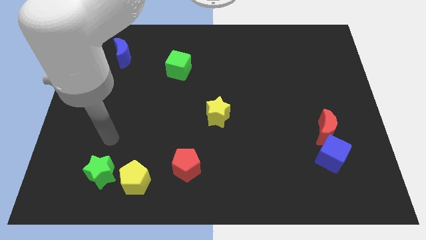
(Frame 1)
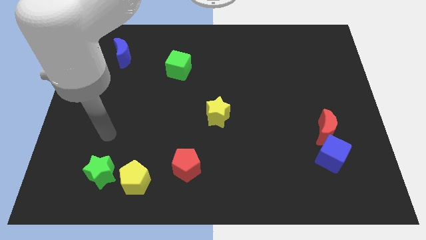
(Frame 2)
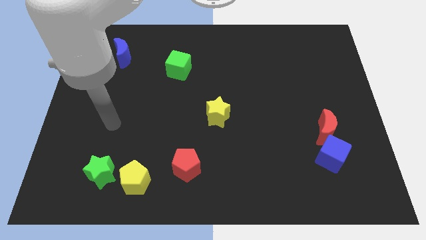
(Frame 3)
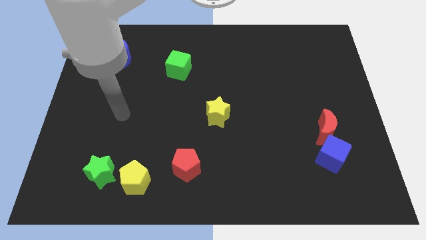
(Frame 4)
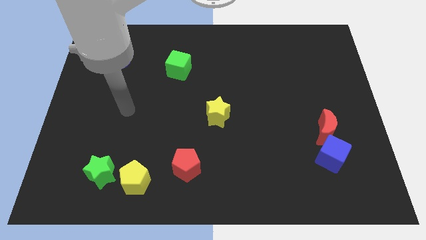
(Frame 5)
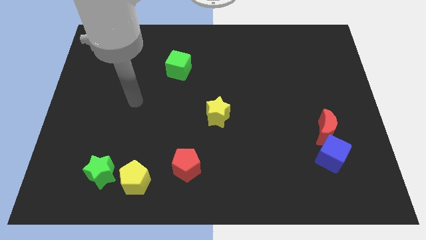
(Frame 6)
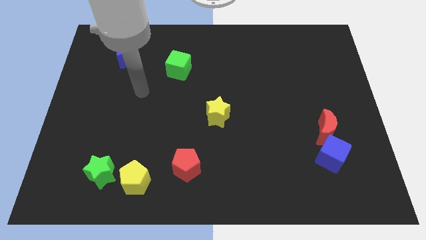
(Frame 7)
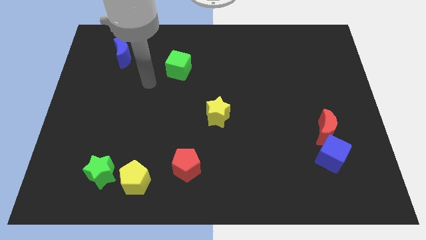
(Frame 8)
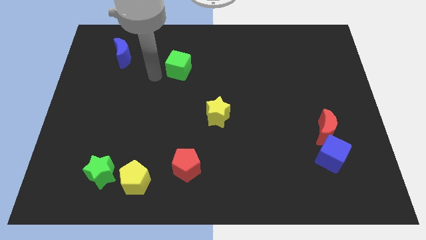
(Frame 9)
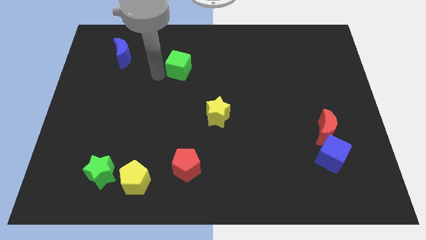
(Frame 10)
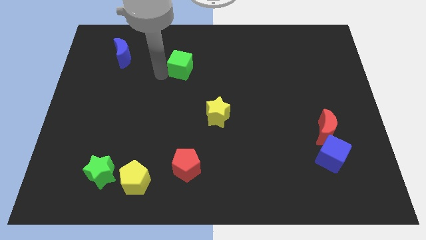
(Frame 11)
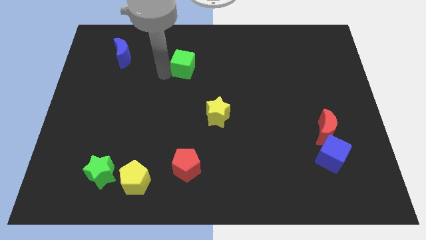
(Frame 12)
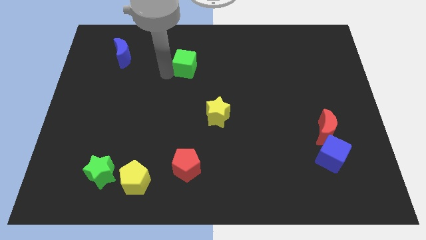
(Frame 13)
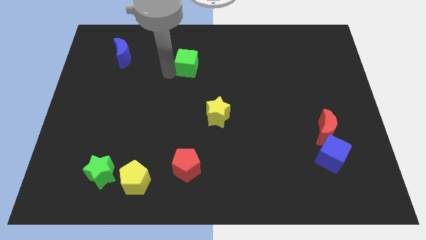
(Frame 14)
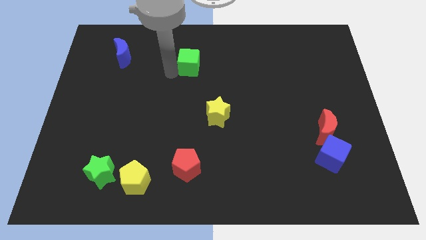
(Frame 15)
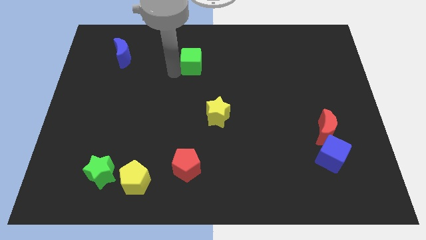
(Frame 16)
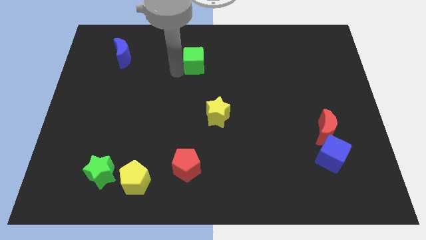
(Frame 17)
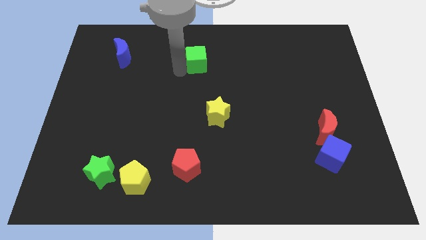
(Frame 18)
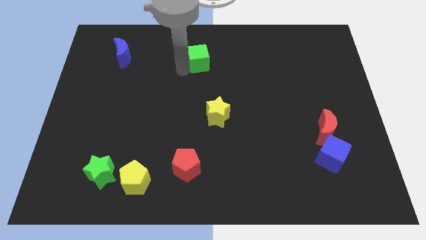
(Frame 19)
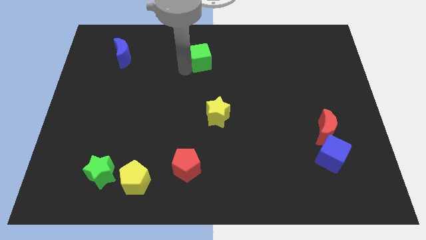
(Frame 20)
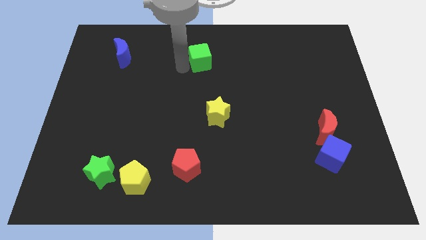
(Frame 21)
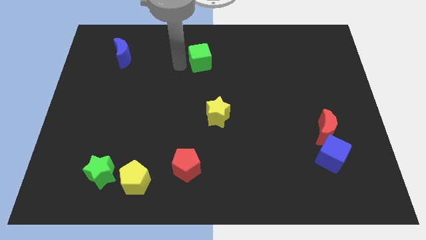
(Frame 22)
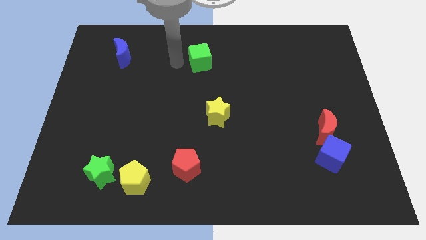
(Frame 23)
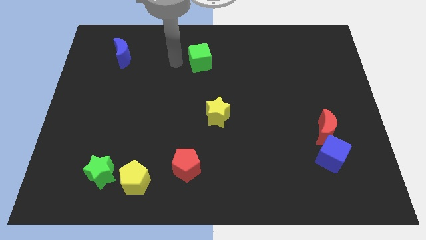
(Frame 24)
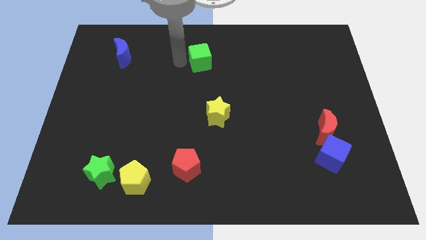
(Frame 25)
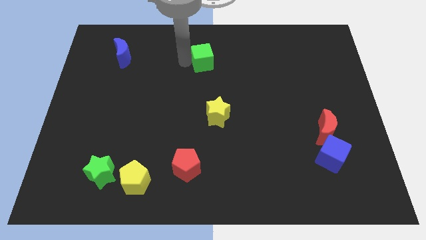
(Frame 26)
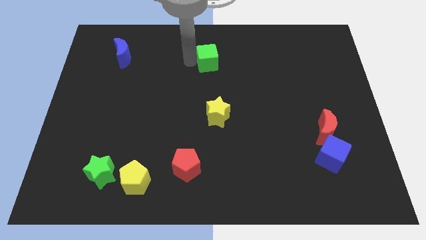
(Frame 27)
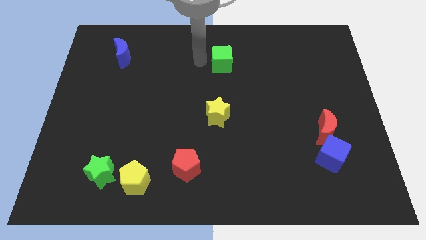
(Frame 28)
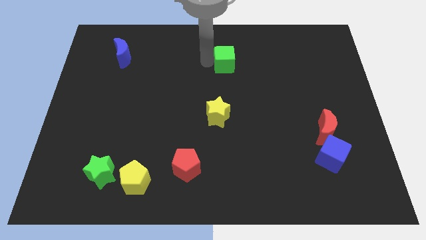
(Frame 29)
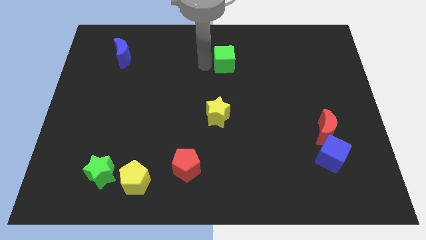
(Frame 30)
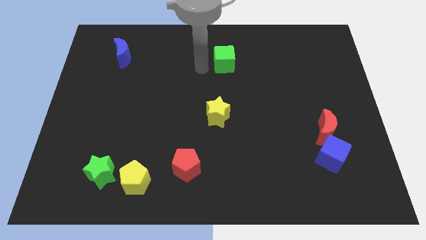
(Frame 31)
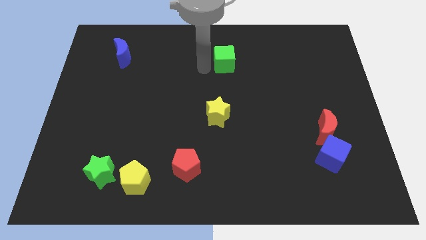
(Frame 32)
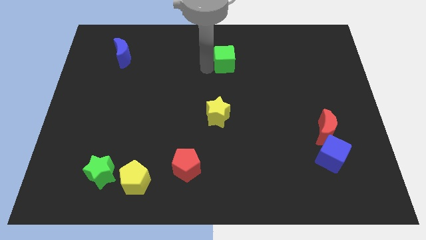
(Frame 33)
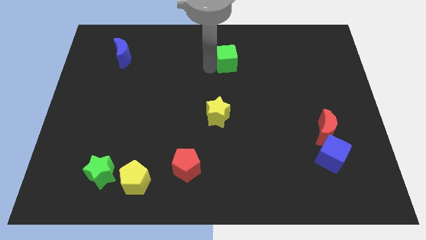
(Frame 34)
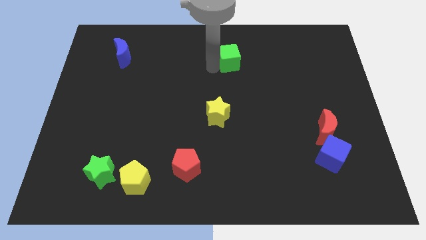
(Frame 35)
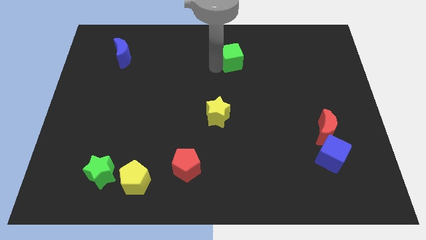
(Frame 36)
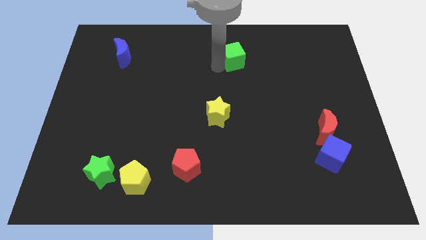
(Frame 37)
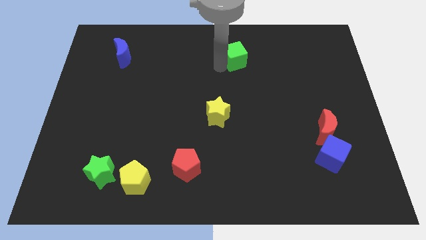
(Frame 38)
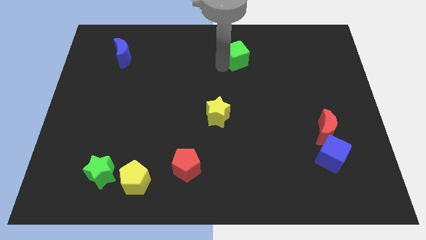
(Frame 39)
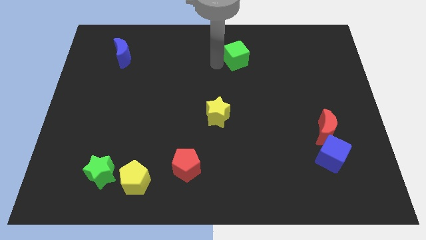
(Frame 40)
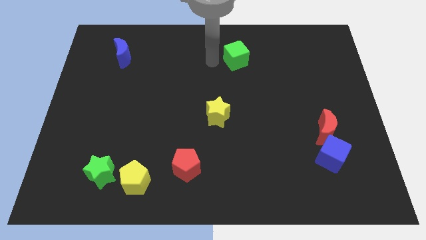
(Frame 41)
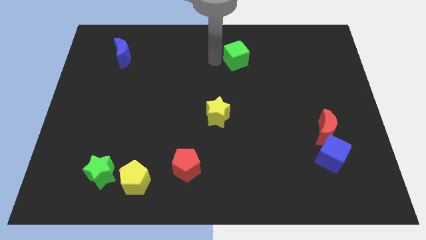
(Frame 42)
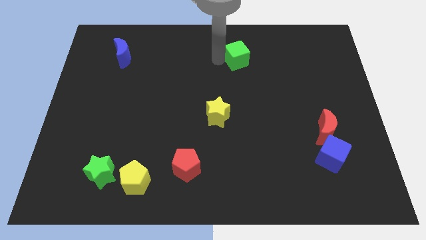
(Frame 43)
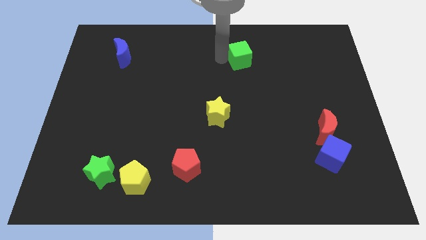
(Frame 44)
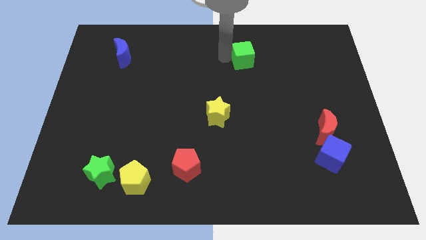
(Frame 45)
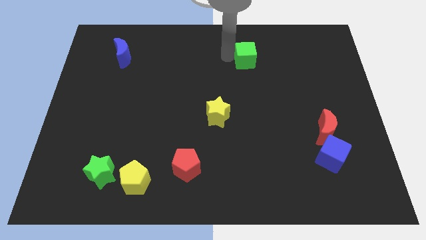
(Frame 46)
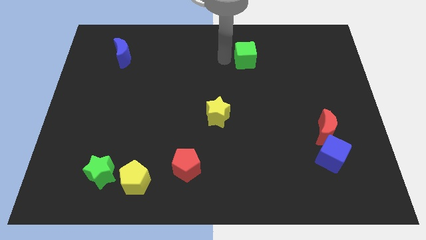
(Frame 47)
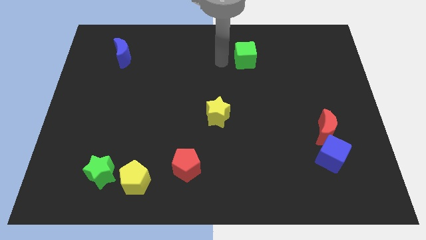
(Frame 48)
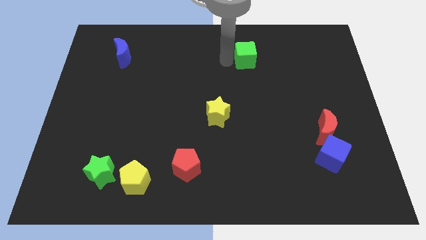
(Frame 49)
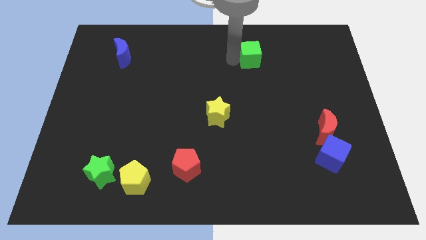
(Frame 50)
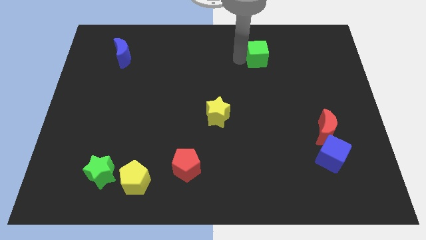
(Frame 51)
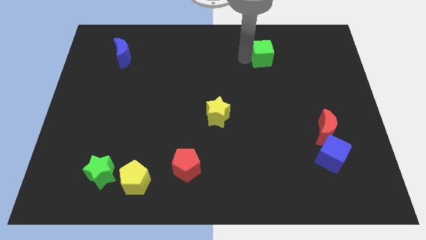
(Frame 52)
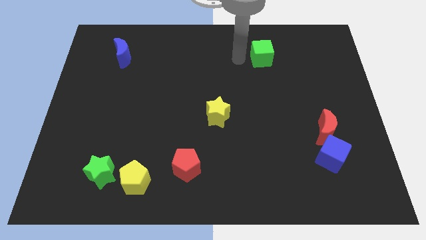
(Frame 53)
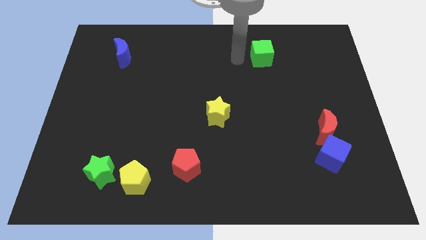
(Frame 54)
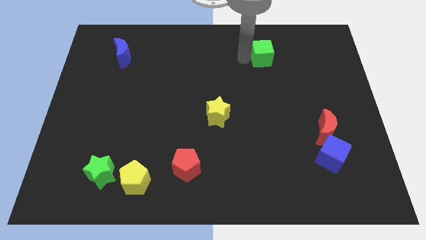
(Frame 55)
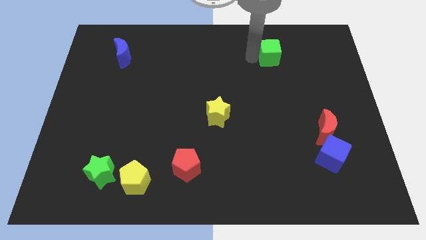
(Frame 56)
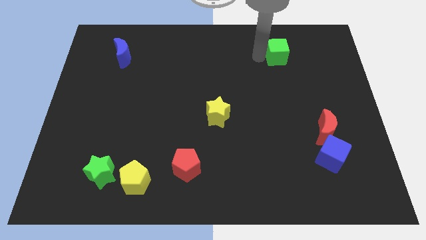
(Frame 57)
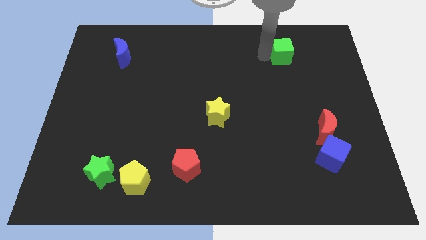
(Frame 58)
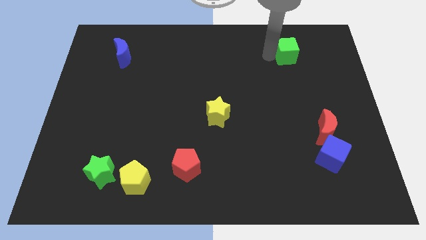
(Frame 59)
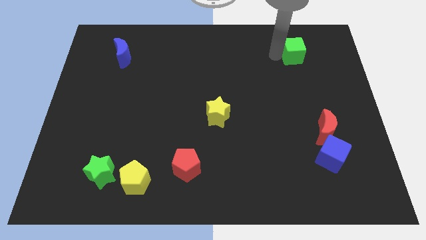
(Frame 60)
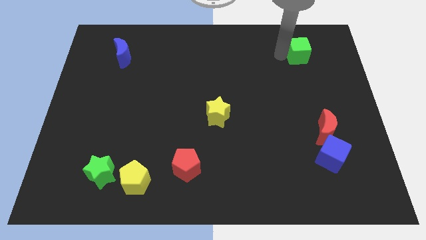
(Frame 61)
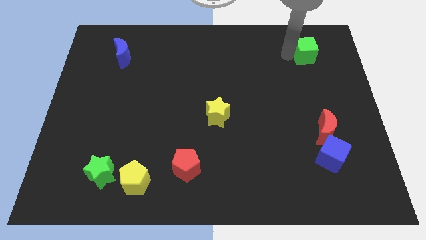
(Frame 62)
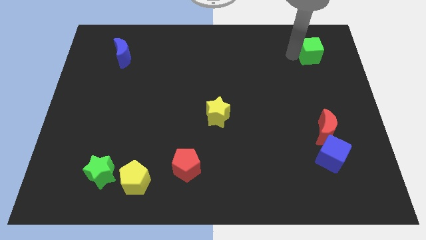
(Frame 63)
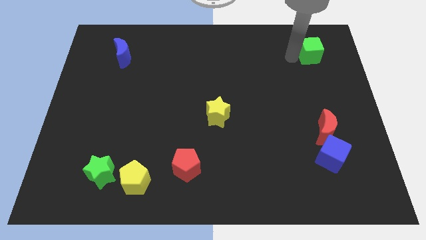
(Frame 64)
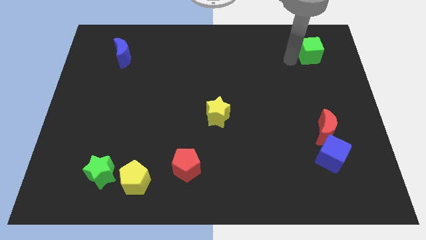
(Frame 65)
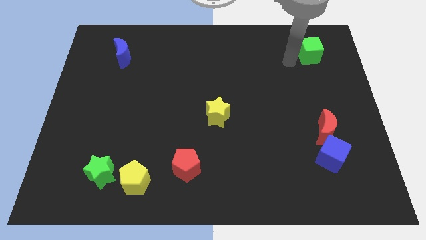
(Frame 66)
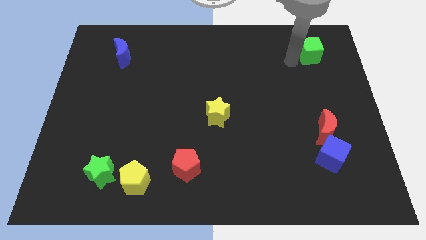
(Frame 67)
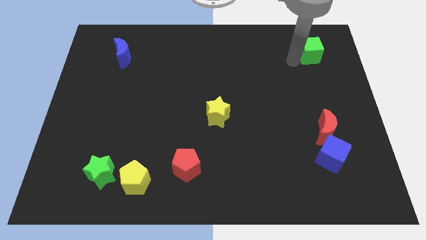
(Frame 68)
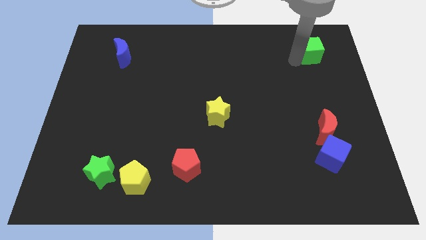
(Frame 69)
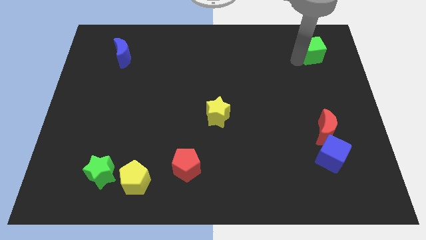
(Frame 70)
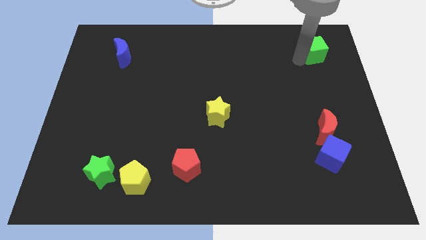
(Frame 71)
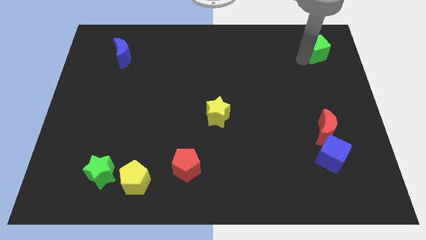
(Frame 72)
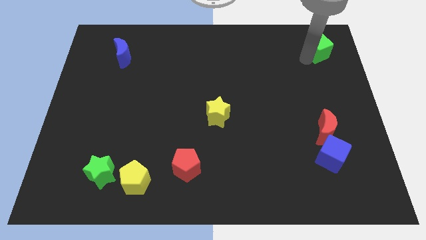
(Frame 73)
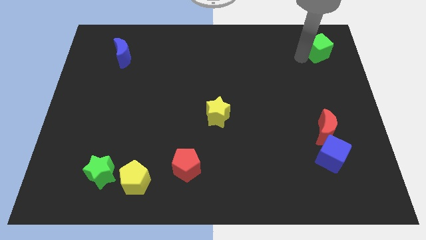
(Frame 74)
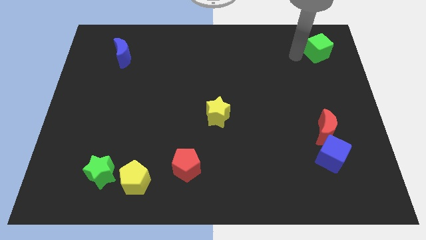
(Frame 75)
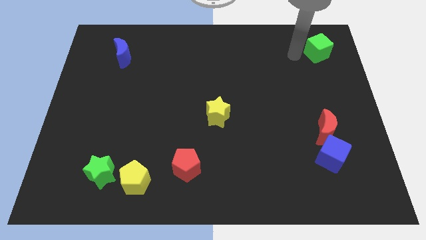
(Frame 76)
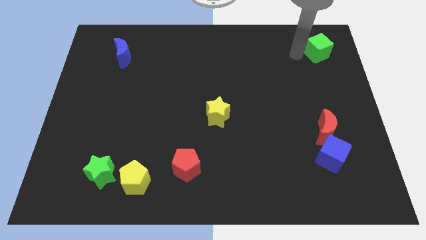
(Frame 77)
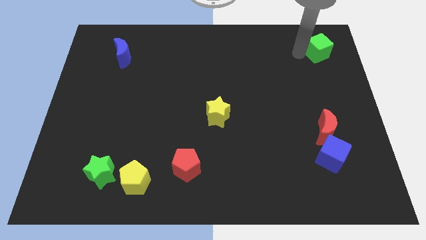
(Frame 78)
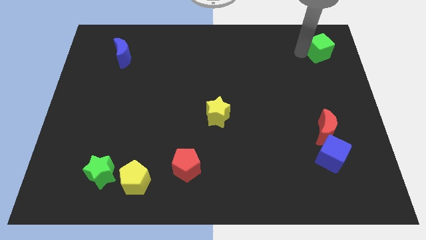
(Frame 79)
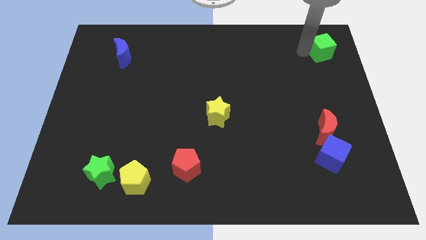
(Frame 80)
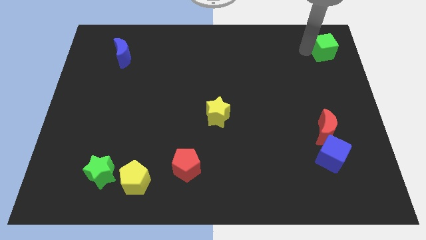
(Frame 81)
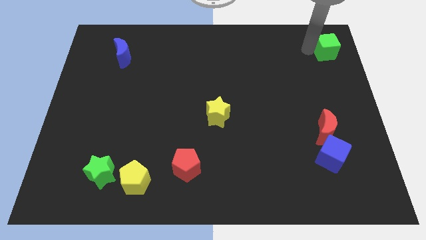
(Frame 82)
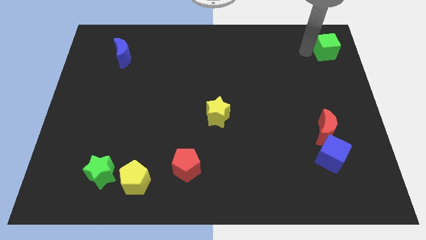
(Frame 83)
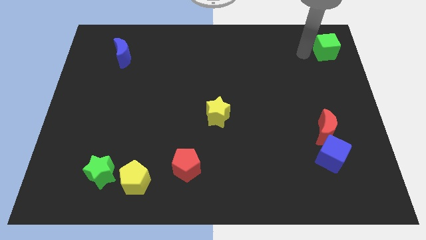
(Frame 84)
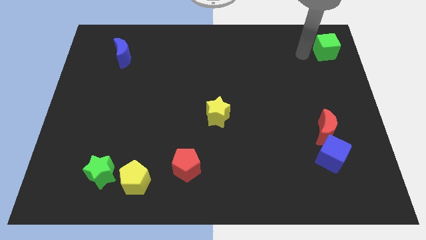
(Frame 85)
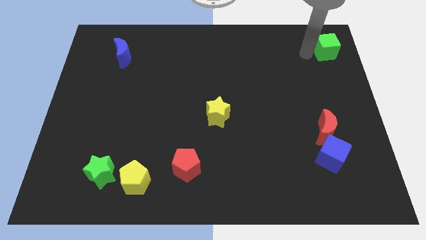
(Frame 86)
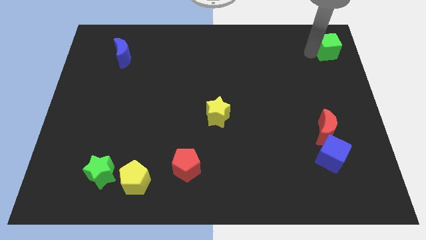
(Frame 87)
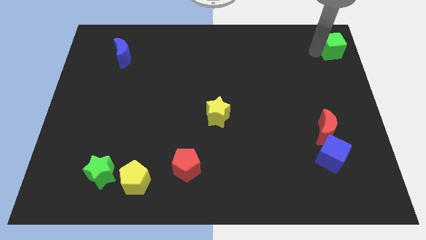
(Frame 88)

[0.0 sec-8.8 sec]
move the green cube to the top right
